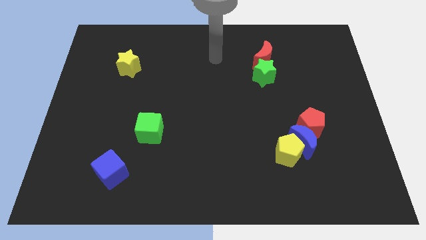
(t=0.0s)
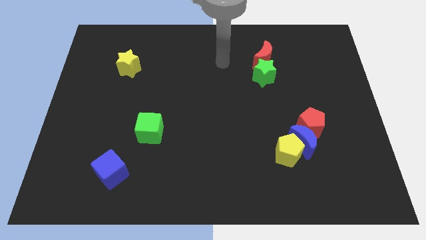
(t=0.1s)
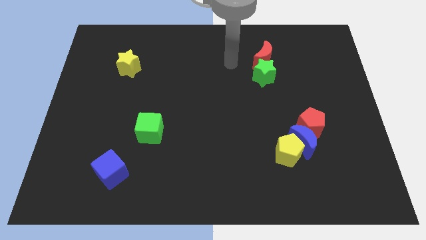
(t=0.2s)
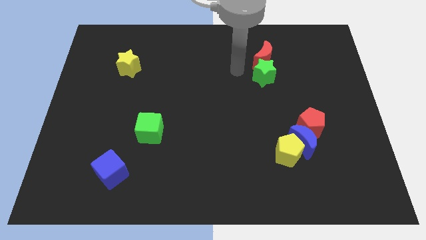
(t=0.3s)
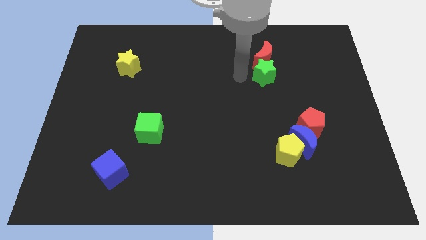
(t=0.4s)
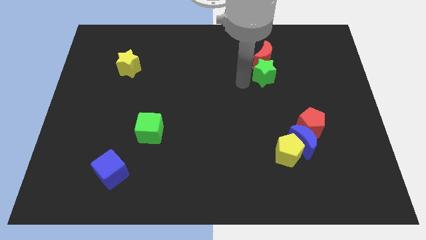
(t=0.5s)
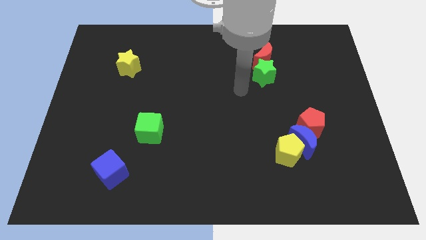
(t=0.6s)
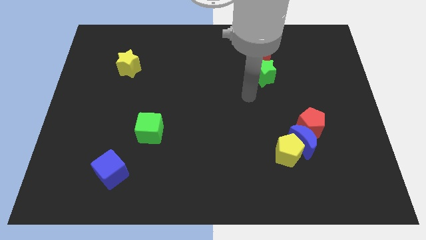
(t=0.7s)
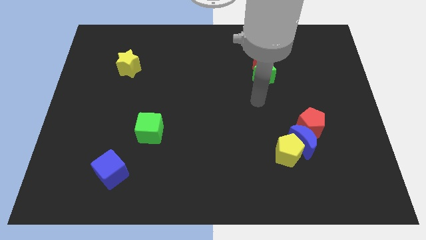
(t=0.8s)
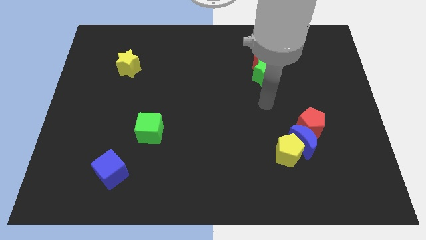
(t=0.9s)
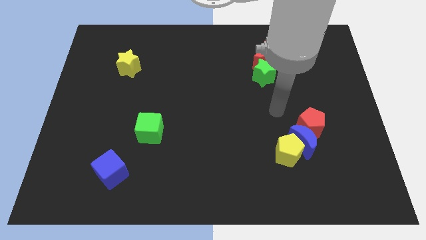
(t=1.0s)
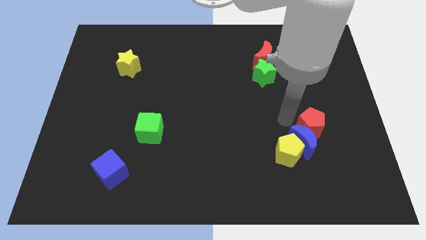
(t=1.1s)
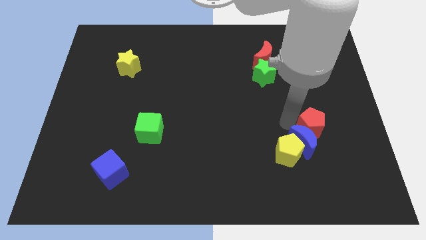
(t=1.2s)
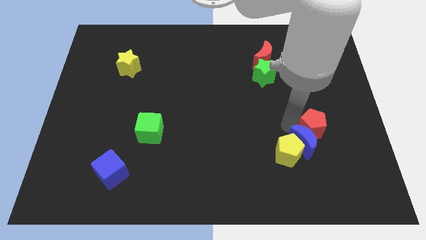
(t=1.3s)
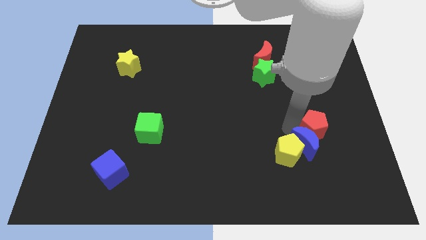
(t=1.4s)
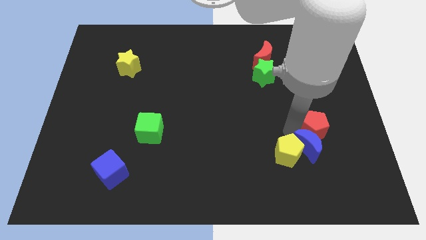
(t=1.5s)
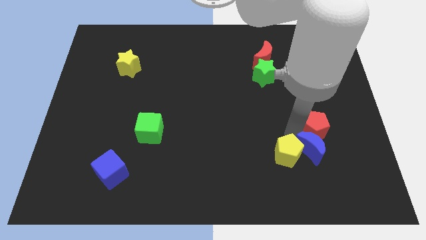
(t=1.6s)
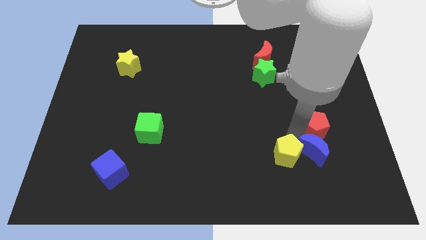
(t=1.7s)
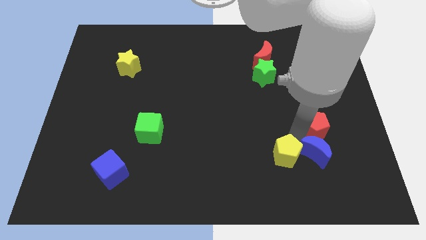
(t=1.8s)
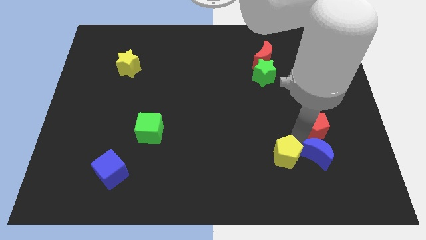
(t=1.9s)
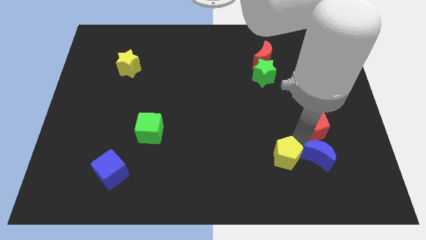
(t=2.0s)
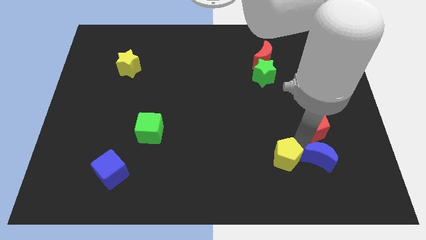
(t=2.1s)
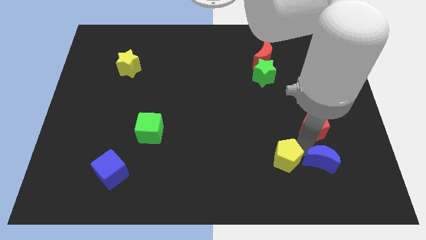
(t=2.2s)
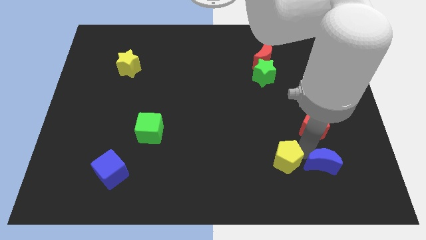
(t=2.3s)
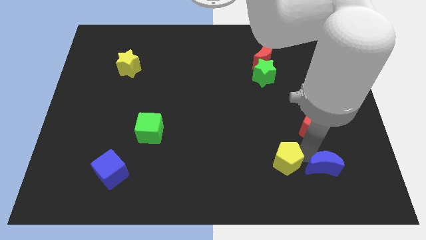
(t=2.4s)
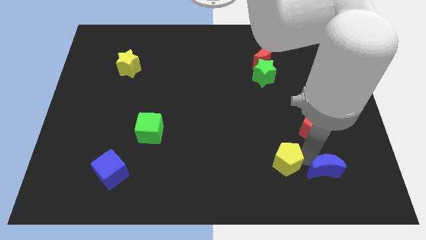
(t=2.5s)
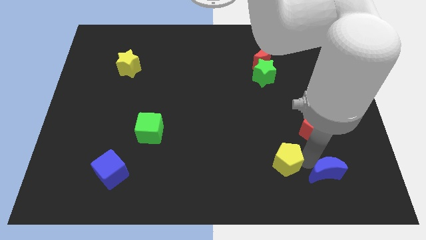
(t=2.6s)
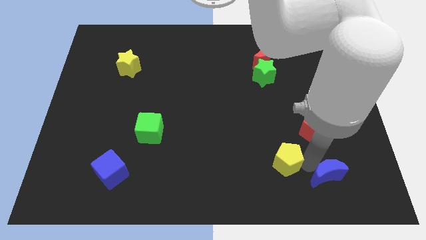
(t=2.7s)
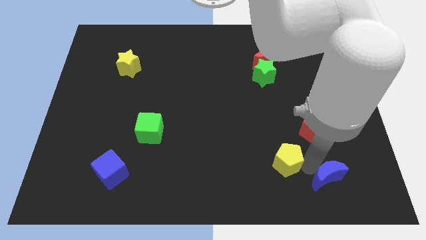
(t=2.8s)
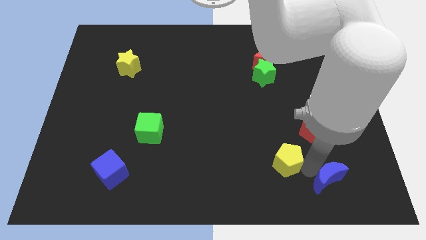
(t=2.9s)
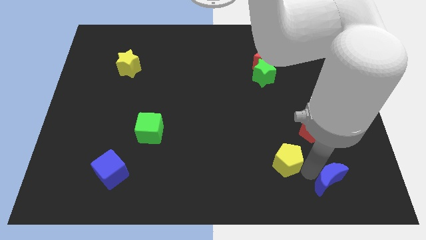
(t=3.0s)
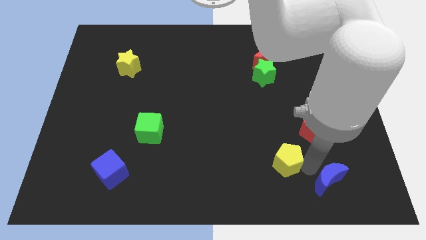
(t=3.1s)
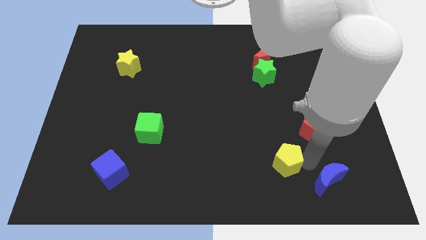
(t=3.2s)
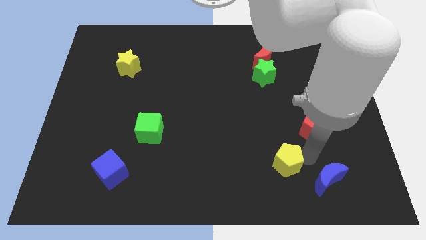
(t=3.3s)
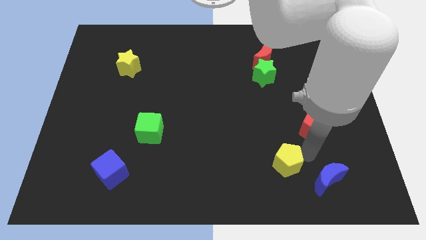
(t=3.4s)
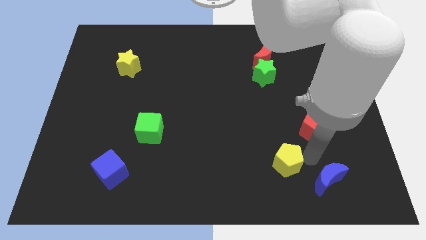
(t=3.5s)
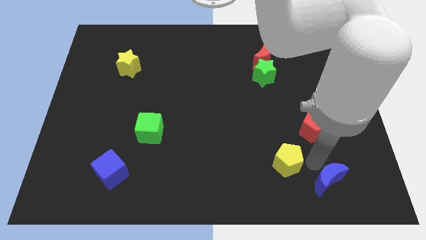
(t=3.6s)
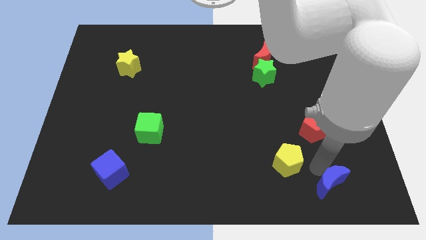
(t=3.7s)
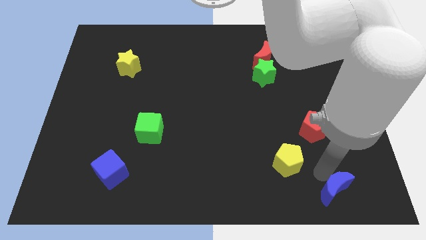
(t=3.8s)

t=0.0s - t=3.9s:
separate the blue moon from the yellow pentagon and red pentagon

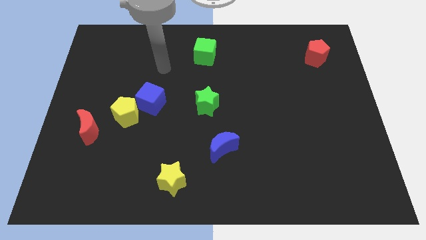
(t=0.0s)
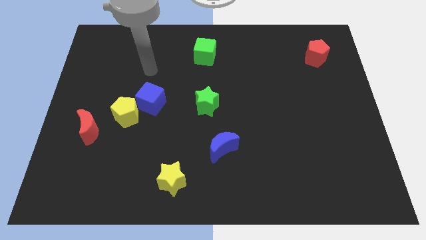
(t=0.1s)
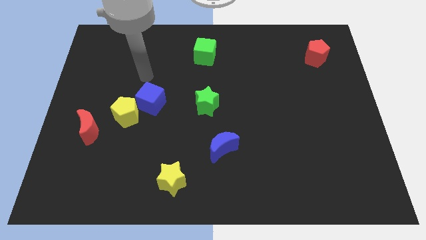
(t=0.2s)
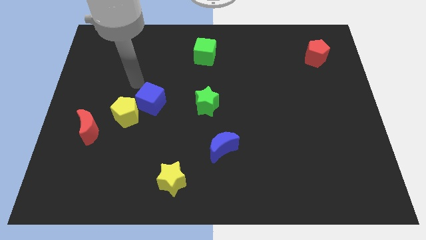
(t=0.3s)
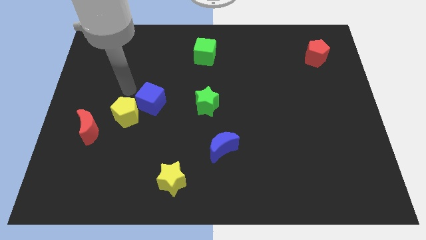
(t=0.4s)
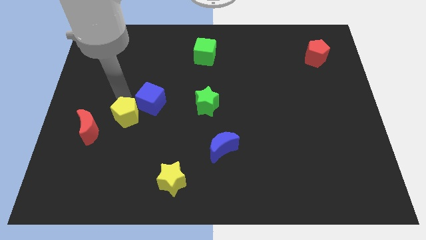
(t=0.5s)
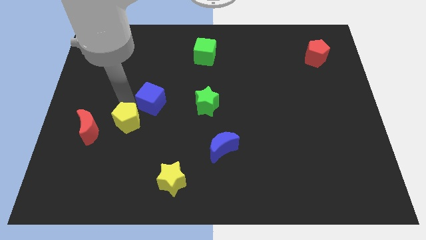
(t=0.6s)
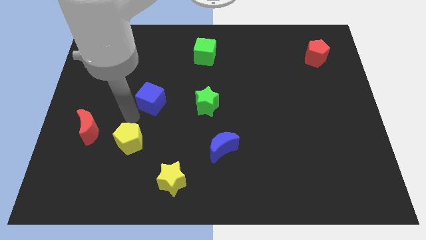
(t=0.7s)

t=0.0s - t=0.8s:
move the blue cube away from the yellow pentagon

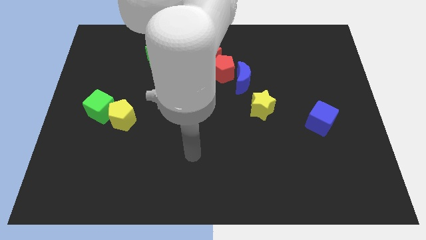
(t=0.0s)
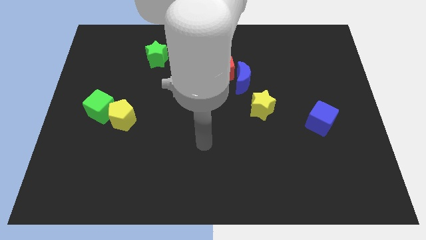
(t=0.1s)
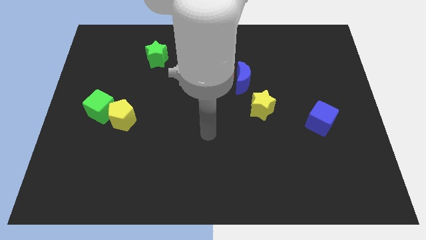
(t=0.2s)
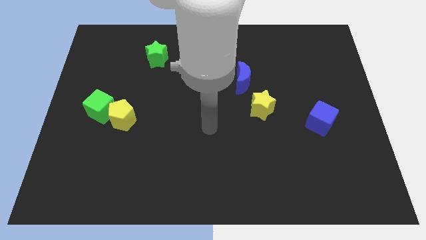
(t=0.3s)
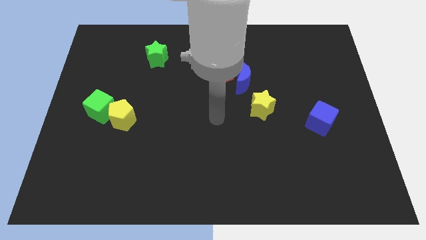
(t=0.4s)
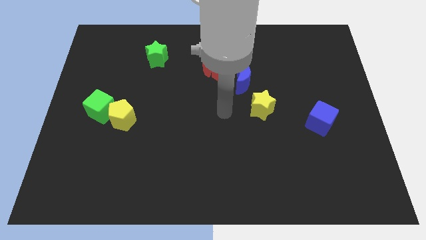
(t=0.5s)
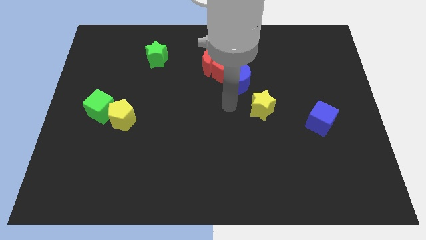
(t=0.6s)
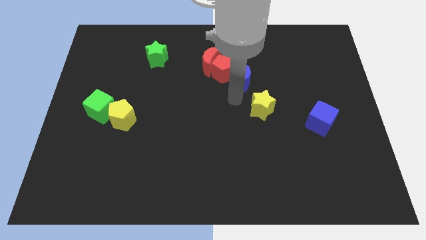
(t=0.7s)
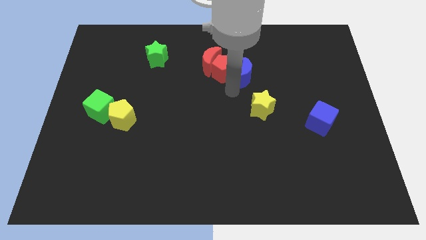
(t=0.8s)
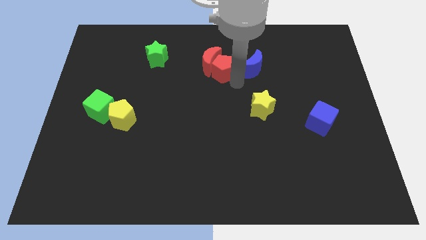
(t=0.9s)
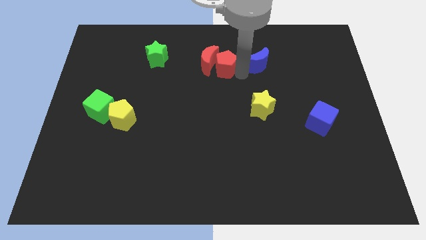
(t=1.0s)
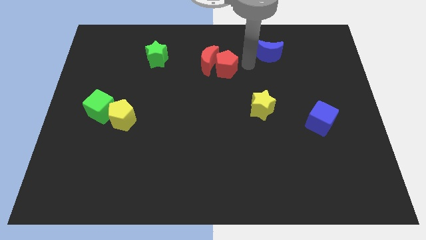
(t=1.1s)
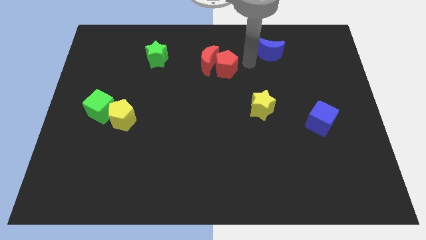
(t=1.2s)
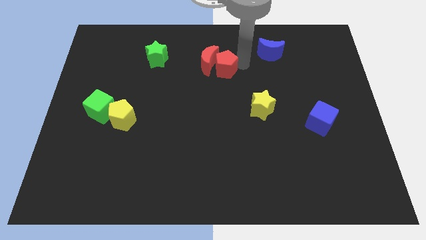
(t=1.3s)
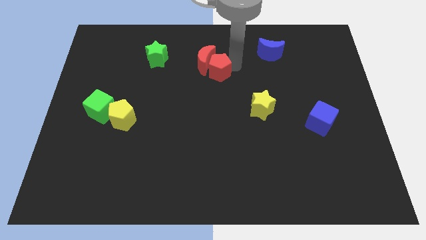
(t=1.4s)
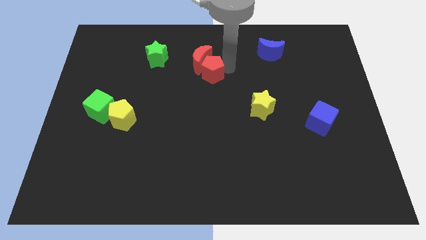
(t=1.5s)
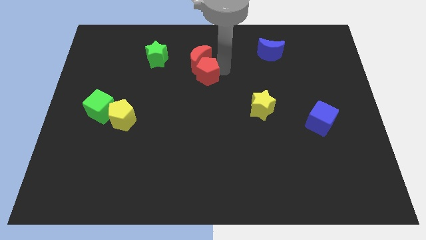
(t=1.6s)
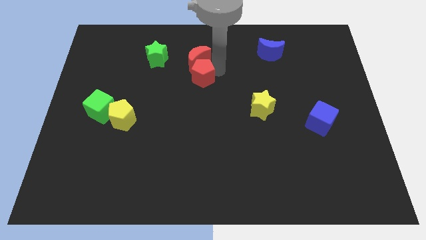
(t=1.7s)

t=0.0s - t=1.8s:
move the red pentagon away from the red moon and blue moon

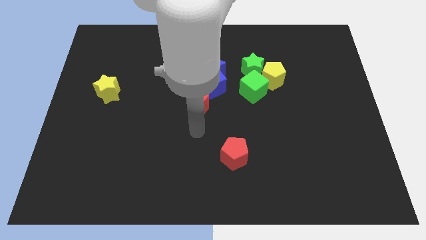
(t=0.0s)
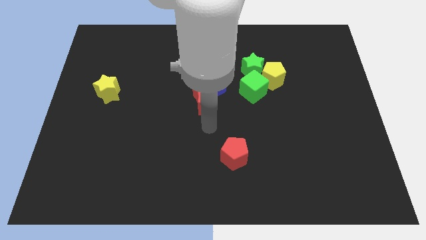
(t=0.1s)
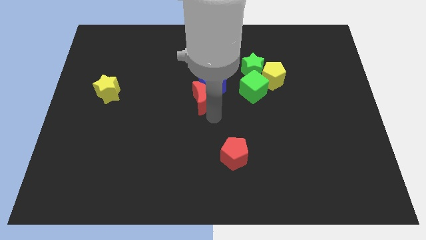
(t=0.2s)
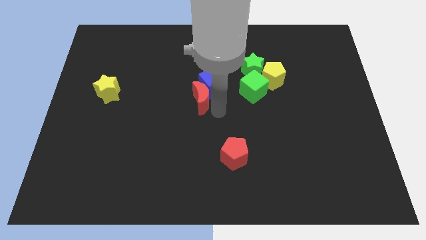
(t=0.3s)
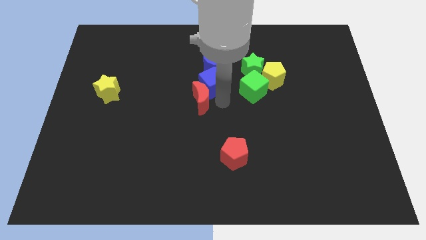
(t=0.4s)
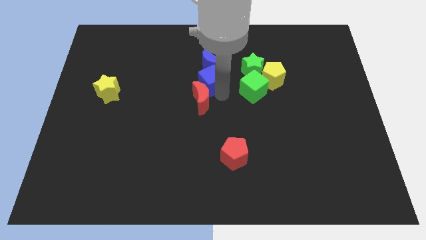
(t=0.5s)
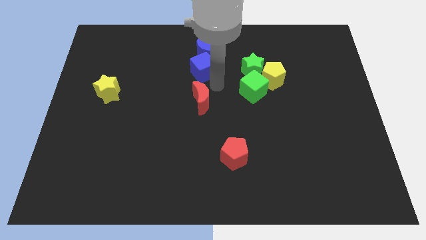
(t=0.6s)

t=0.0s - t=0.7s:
move the red moon away from the blue cube

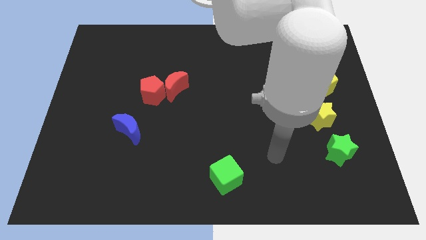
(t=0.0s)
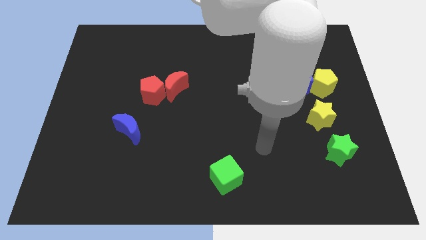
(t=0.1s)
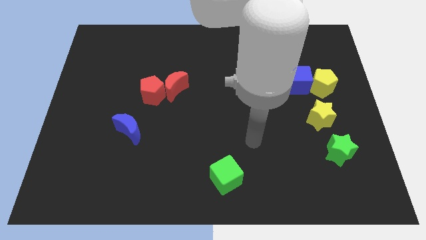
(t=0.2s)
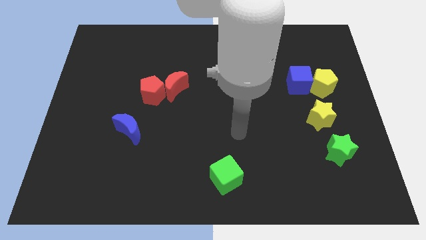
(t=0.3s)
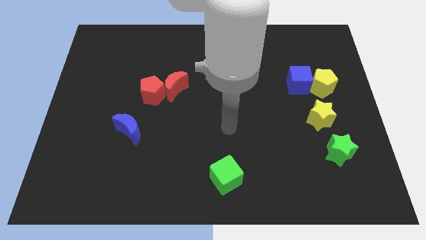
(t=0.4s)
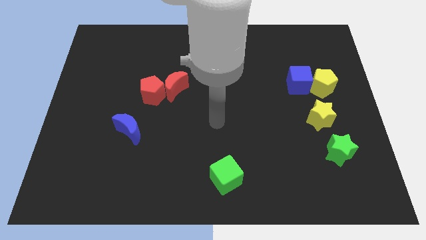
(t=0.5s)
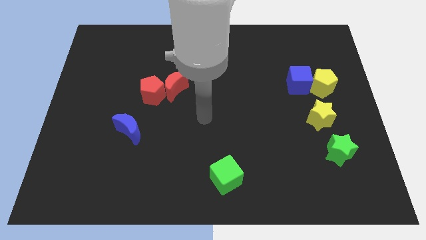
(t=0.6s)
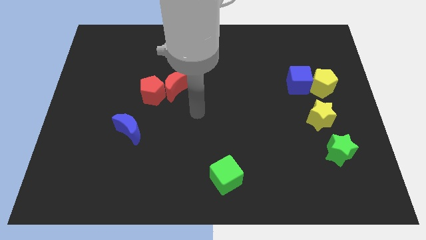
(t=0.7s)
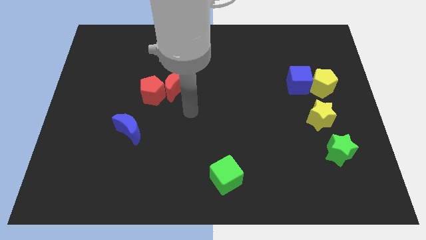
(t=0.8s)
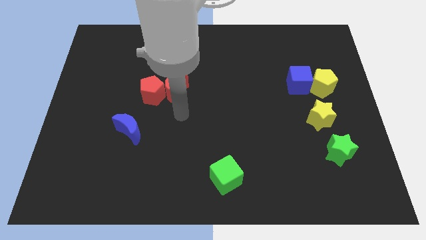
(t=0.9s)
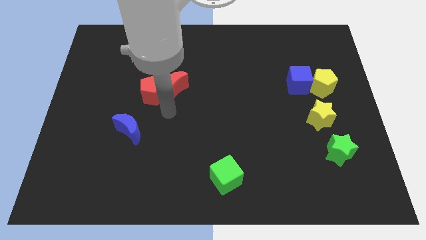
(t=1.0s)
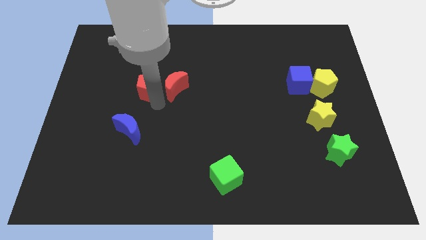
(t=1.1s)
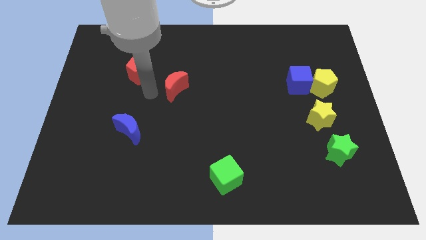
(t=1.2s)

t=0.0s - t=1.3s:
pull the red moon apart from the red pentagon

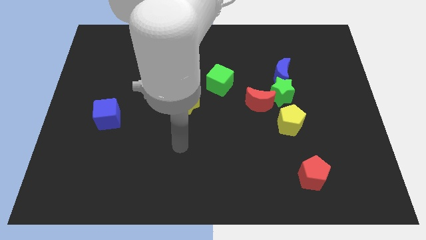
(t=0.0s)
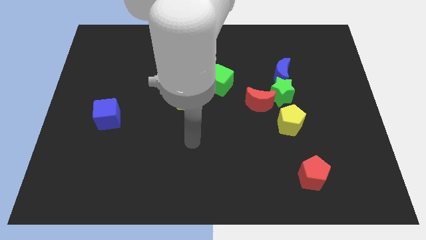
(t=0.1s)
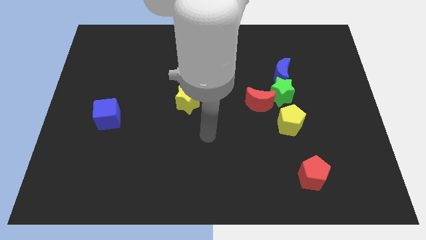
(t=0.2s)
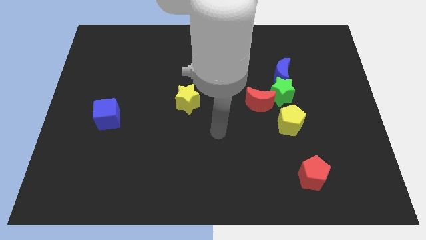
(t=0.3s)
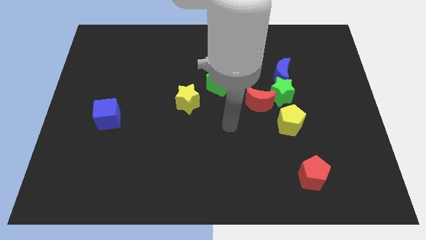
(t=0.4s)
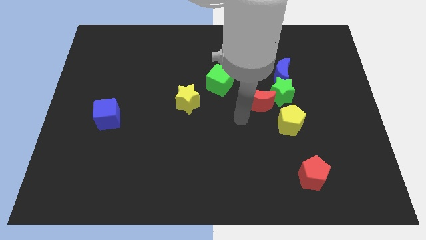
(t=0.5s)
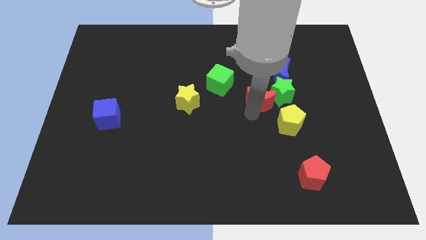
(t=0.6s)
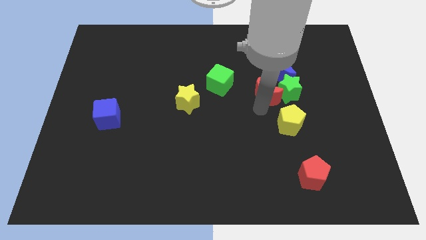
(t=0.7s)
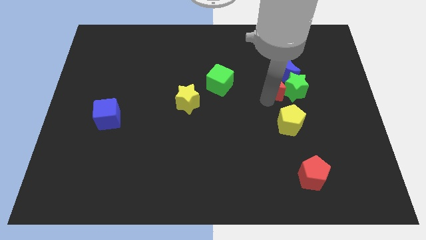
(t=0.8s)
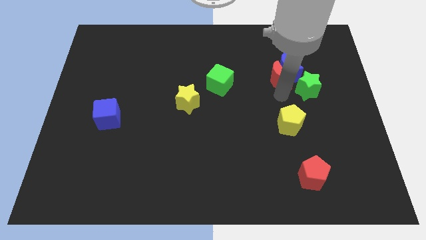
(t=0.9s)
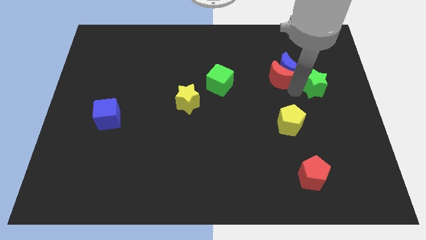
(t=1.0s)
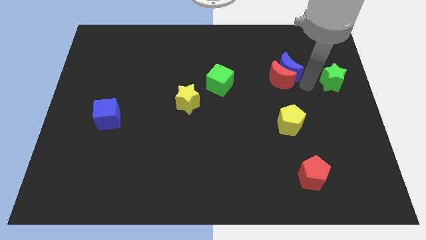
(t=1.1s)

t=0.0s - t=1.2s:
separate the blue moon from the green star
